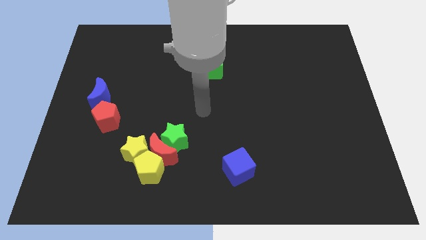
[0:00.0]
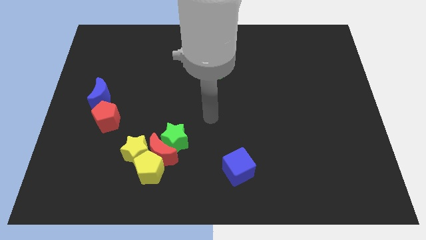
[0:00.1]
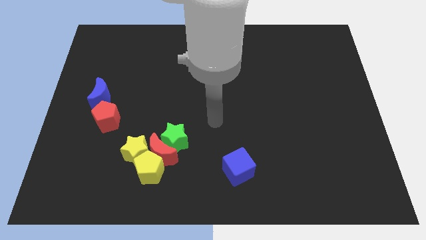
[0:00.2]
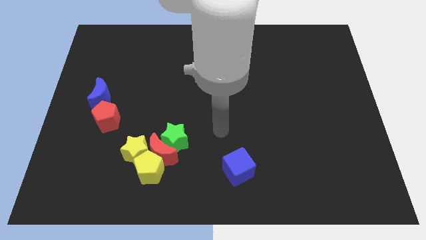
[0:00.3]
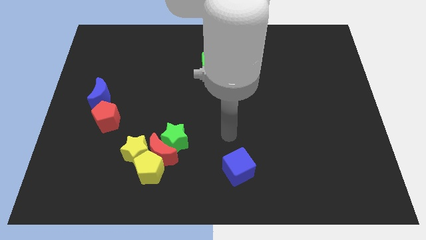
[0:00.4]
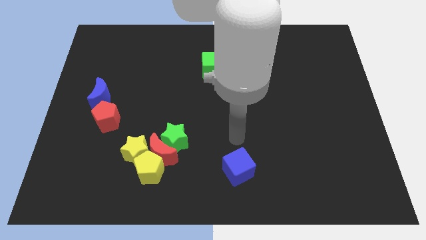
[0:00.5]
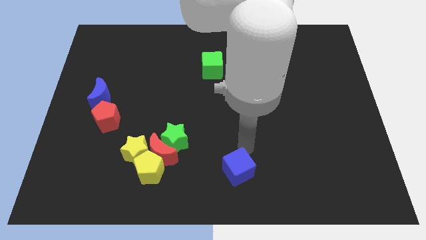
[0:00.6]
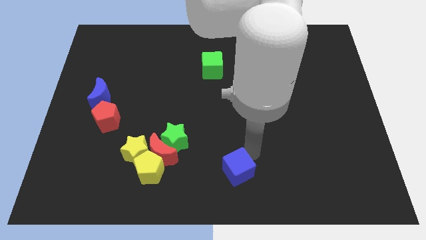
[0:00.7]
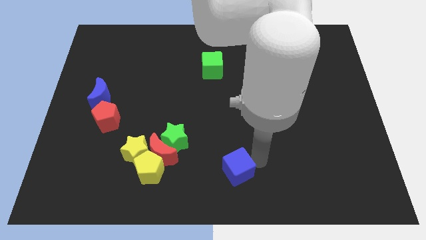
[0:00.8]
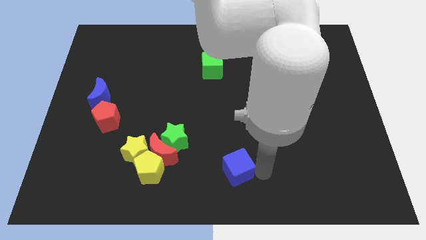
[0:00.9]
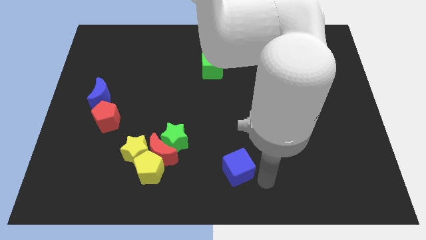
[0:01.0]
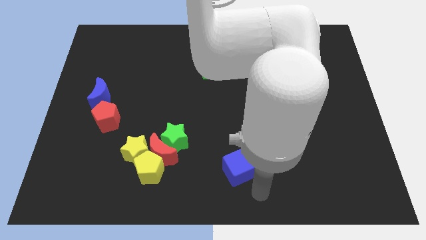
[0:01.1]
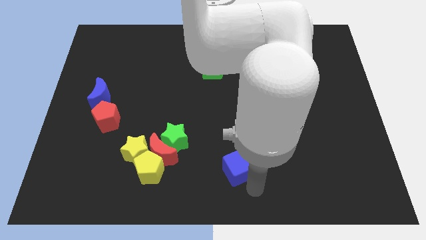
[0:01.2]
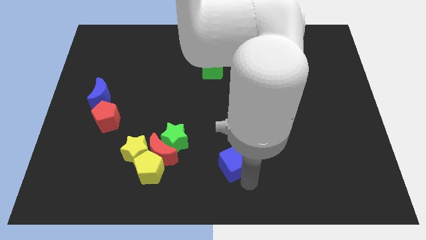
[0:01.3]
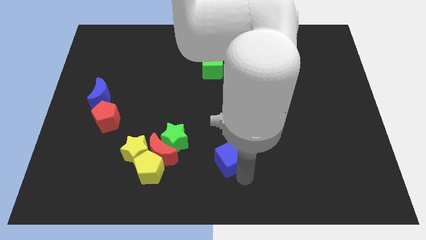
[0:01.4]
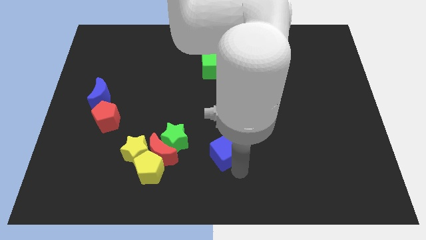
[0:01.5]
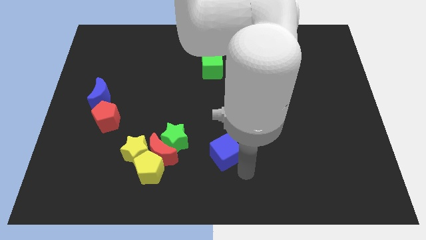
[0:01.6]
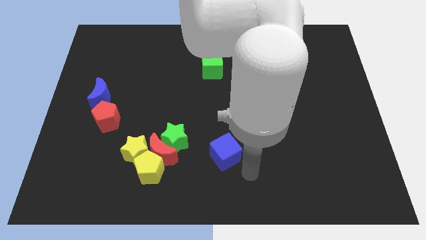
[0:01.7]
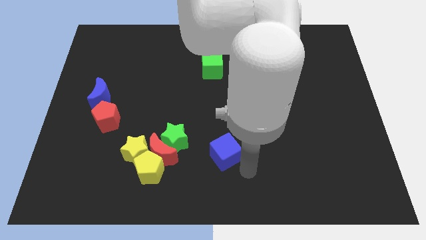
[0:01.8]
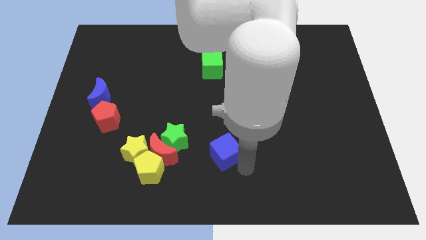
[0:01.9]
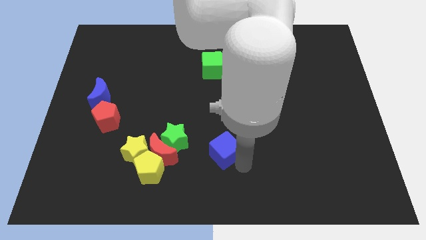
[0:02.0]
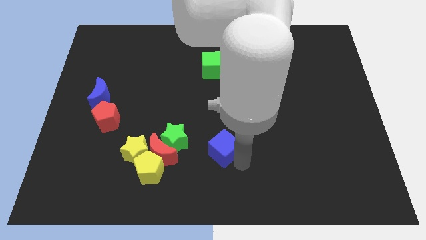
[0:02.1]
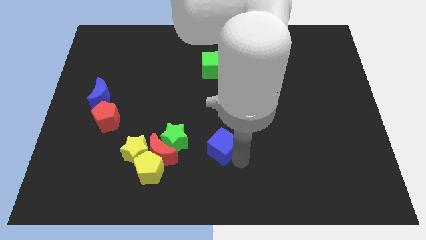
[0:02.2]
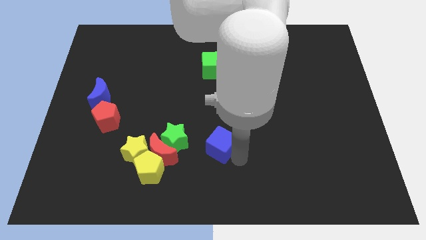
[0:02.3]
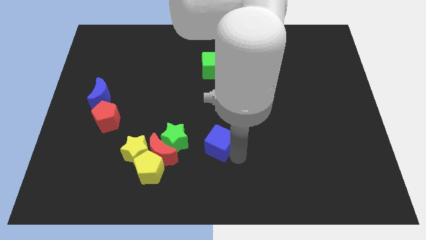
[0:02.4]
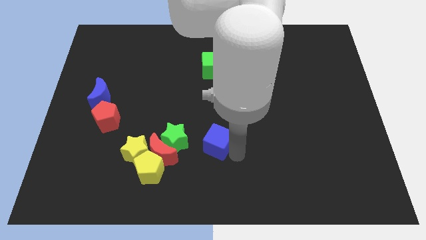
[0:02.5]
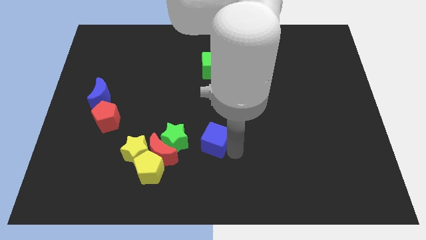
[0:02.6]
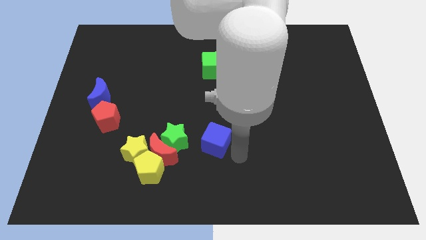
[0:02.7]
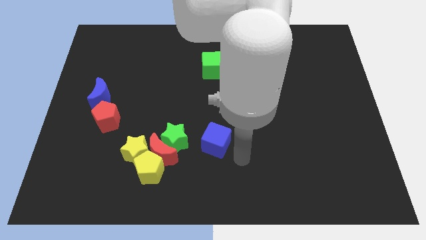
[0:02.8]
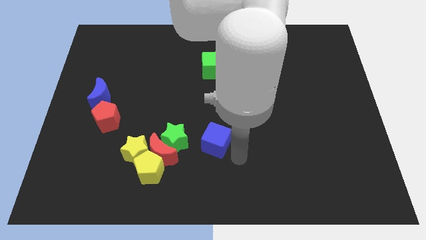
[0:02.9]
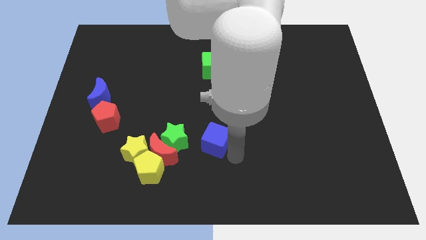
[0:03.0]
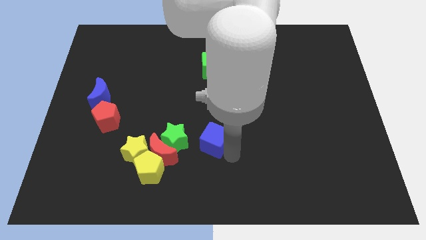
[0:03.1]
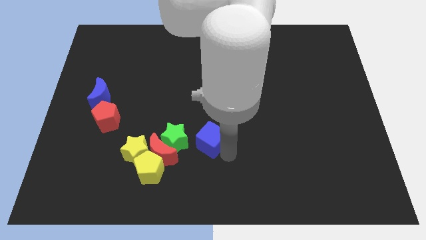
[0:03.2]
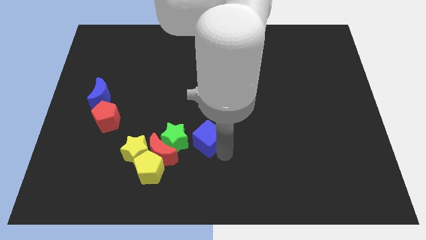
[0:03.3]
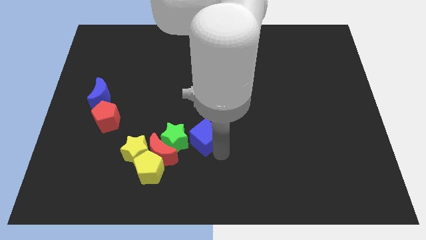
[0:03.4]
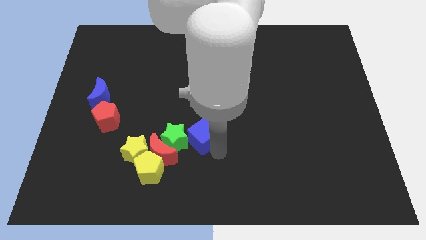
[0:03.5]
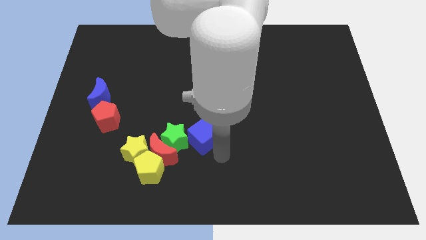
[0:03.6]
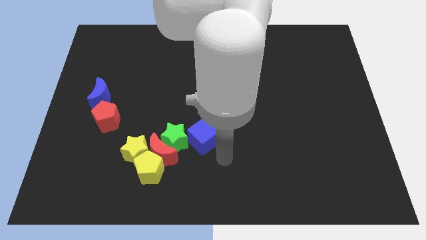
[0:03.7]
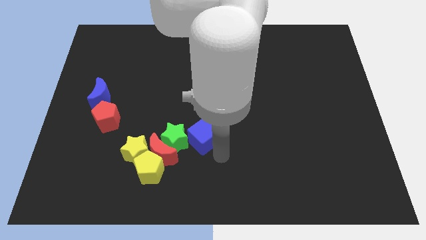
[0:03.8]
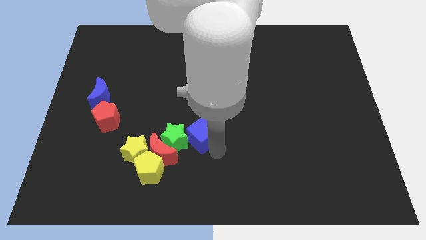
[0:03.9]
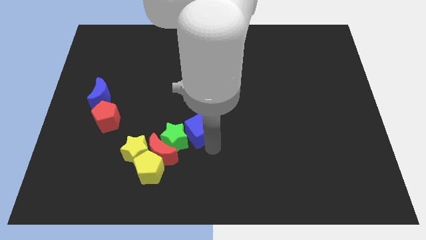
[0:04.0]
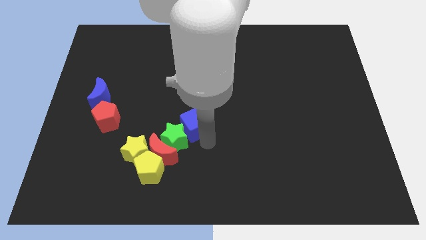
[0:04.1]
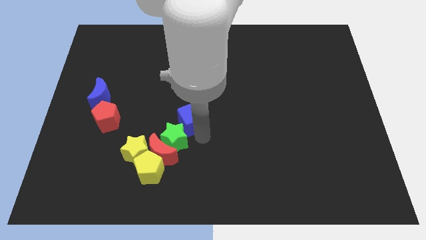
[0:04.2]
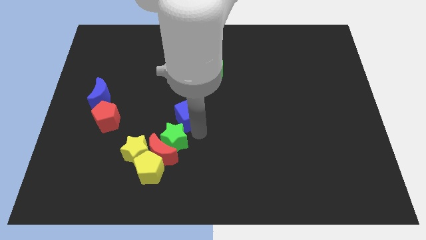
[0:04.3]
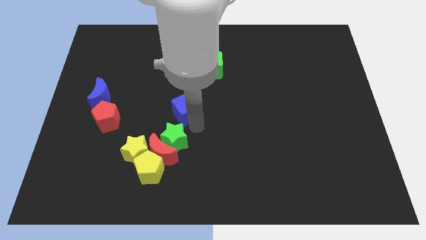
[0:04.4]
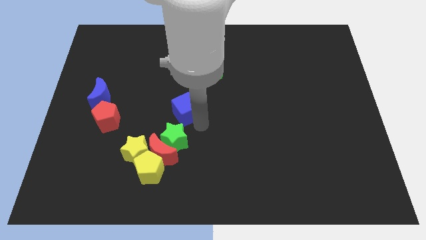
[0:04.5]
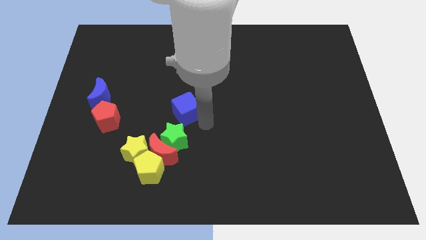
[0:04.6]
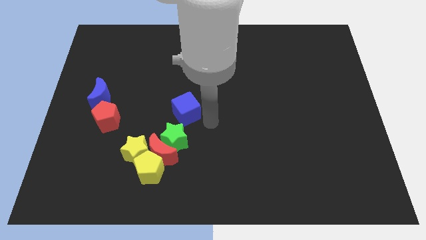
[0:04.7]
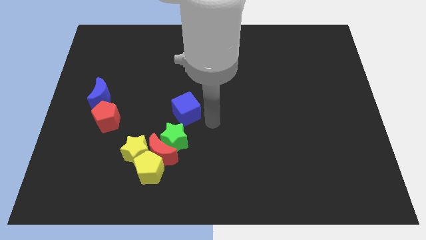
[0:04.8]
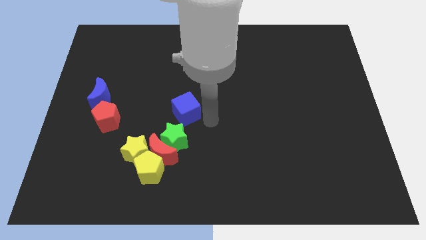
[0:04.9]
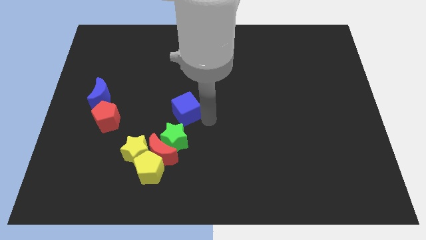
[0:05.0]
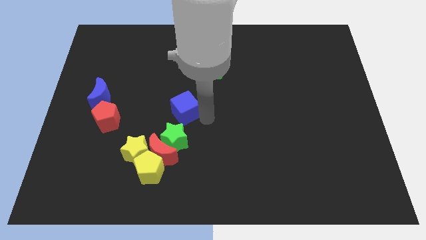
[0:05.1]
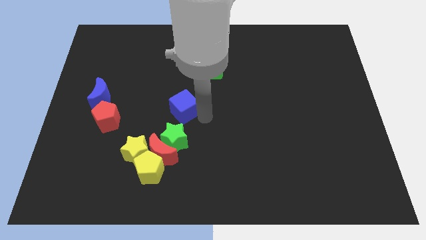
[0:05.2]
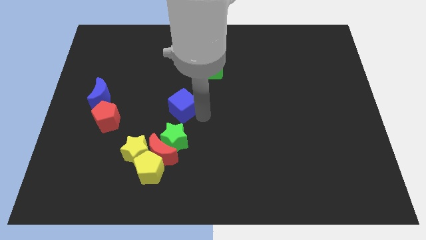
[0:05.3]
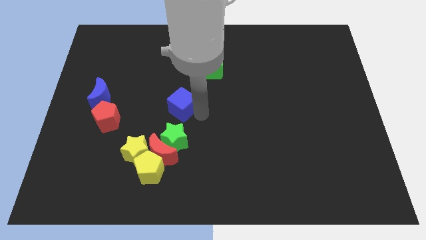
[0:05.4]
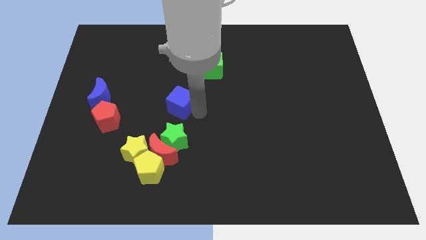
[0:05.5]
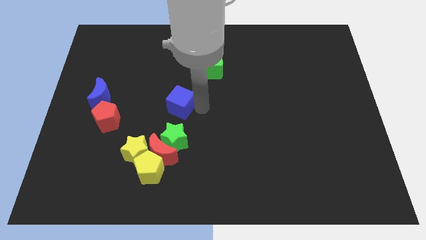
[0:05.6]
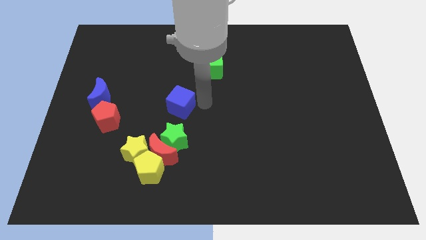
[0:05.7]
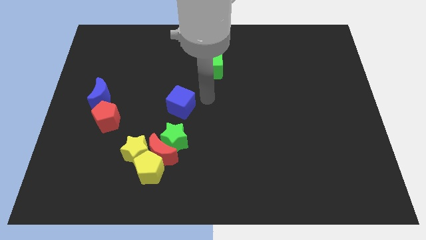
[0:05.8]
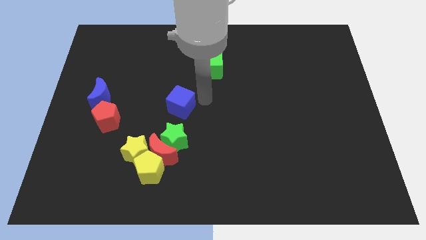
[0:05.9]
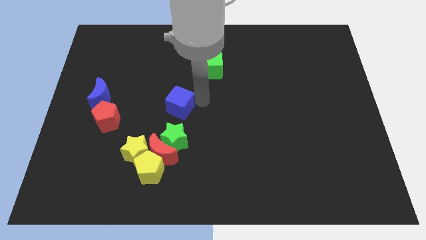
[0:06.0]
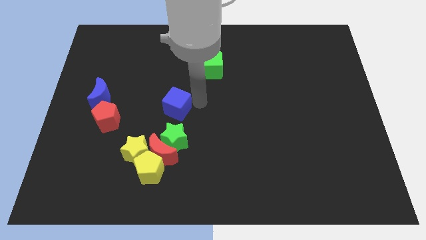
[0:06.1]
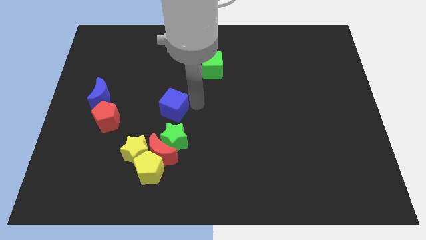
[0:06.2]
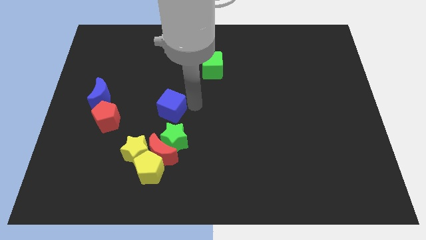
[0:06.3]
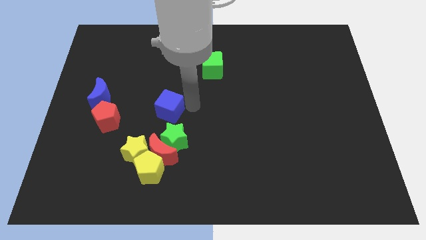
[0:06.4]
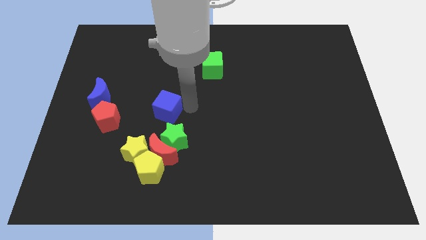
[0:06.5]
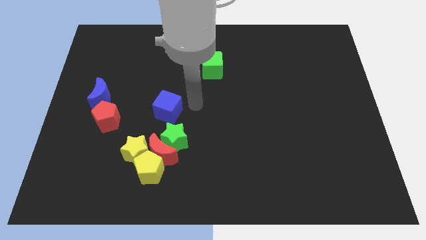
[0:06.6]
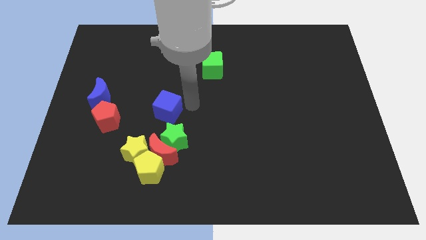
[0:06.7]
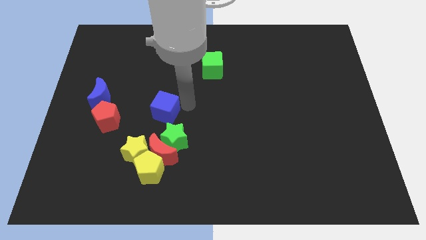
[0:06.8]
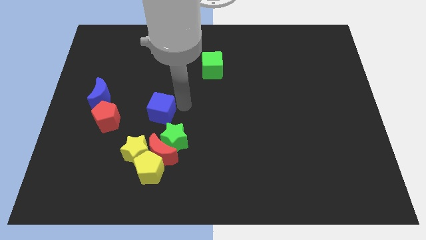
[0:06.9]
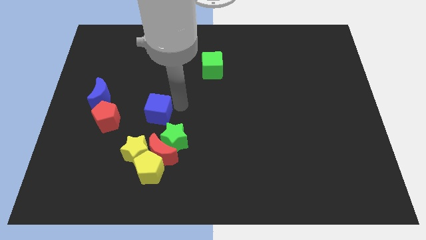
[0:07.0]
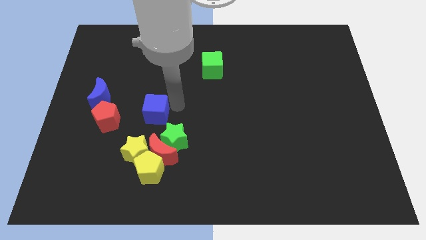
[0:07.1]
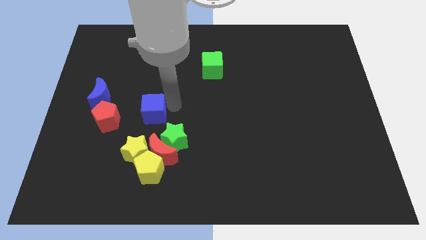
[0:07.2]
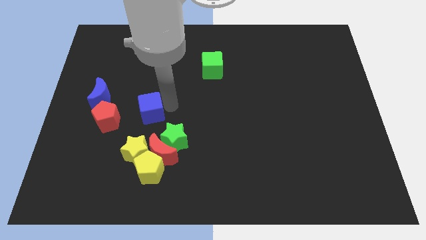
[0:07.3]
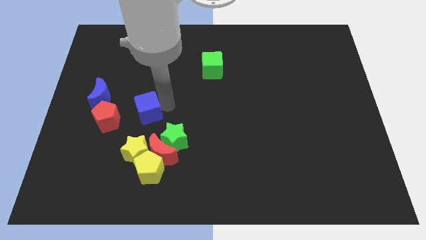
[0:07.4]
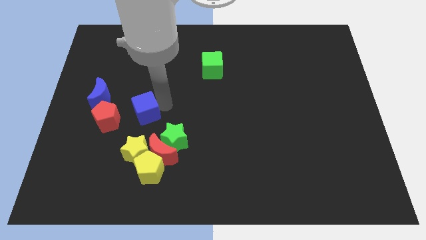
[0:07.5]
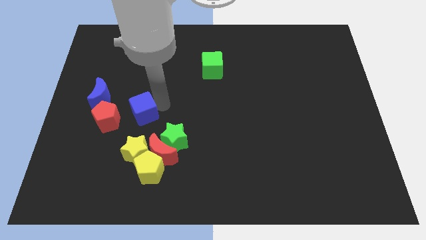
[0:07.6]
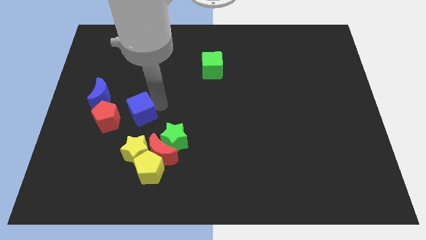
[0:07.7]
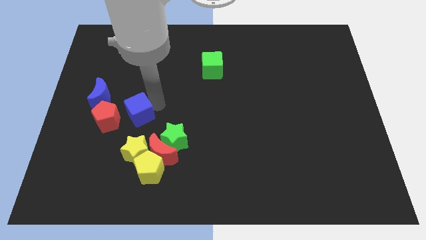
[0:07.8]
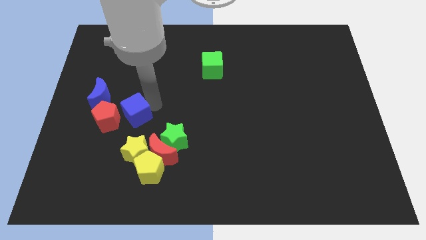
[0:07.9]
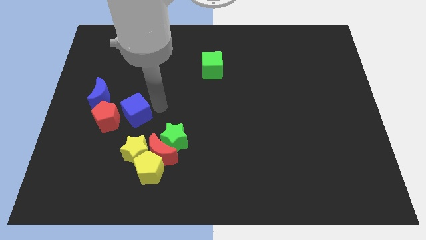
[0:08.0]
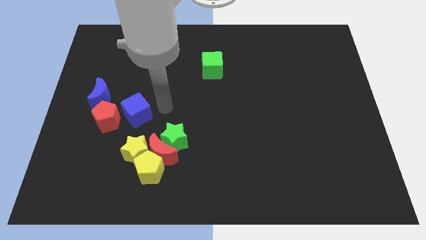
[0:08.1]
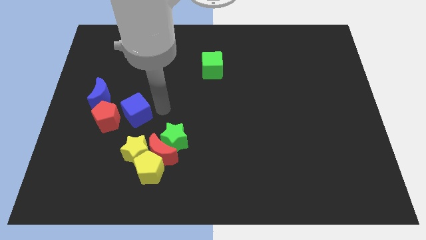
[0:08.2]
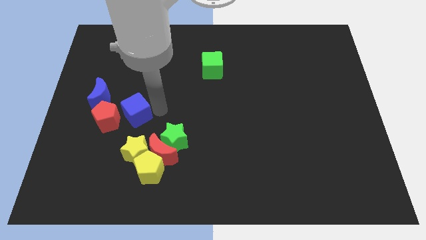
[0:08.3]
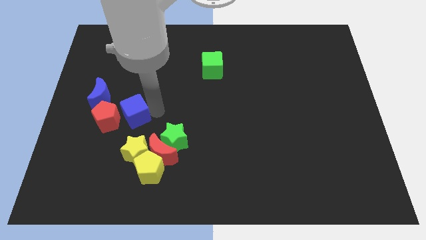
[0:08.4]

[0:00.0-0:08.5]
put the blue cube to the red pentagon
